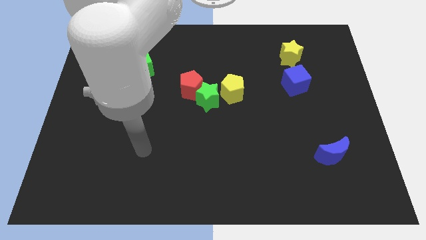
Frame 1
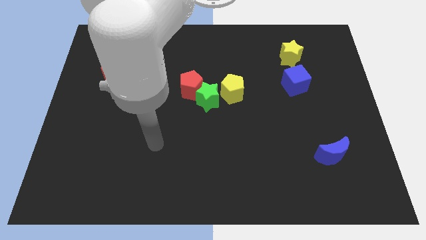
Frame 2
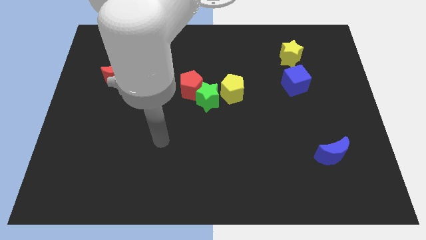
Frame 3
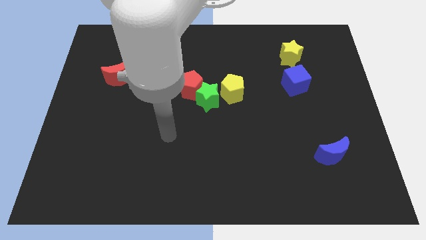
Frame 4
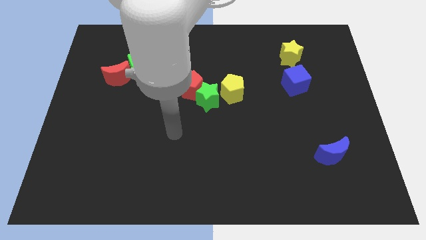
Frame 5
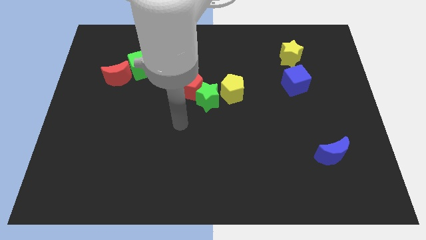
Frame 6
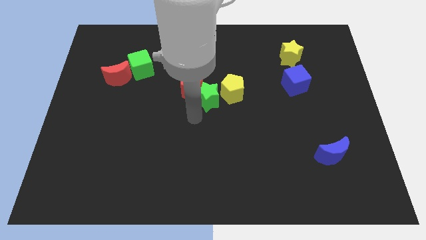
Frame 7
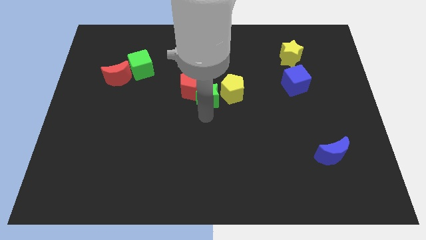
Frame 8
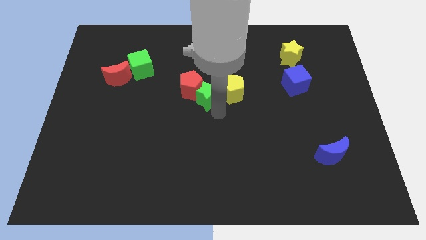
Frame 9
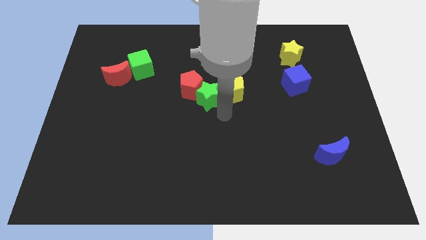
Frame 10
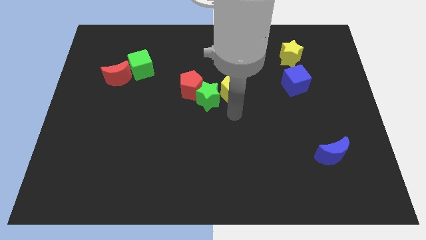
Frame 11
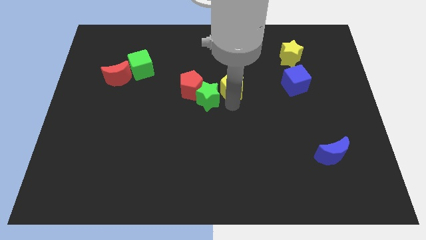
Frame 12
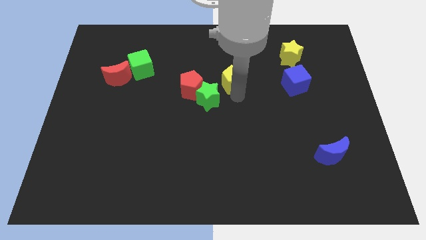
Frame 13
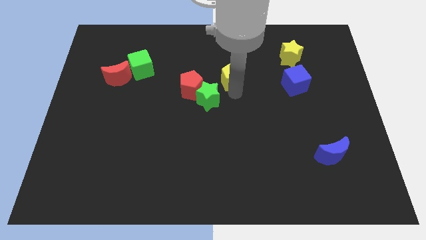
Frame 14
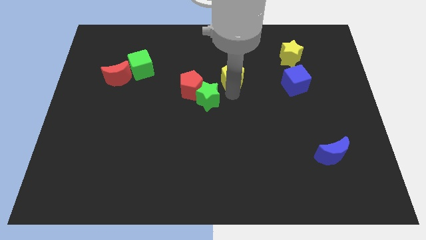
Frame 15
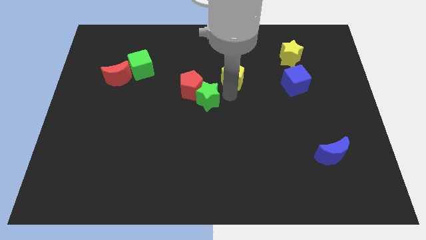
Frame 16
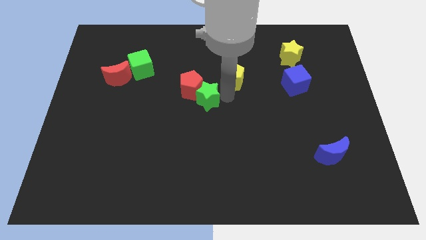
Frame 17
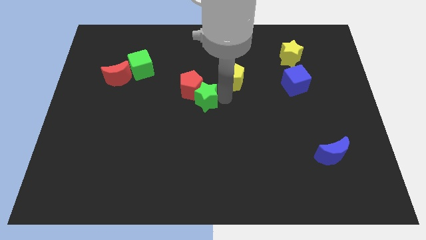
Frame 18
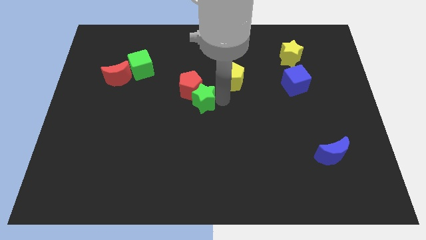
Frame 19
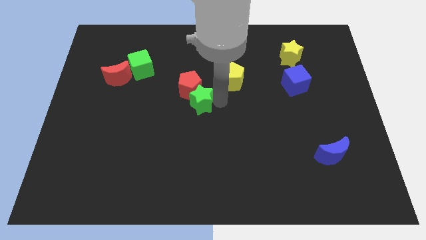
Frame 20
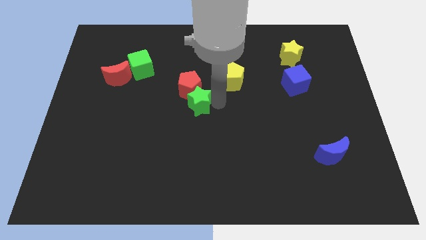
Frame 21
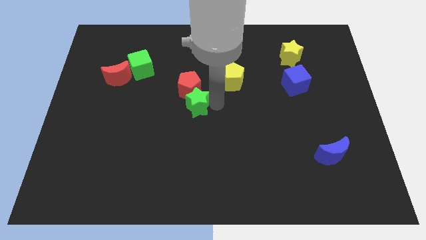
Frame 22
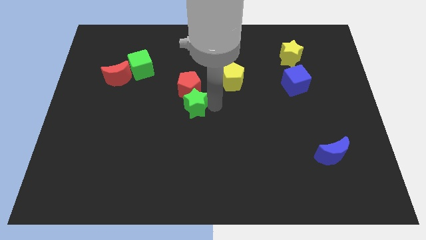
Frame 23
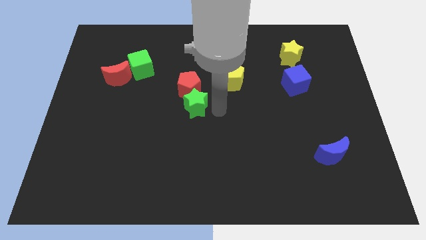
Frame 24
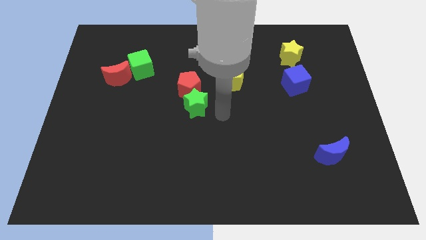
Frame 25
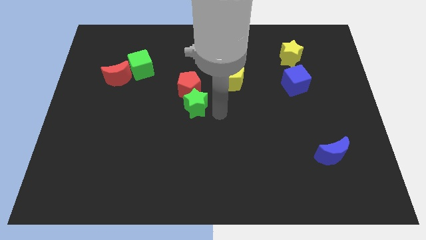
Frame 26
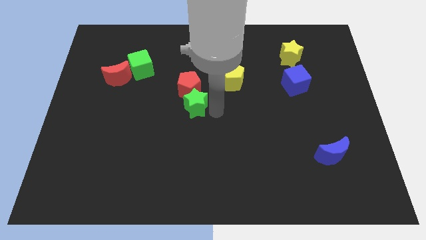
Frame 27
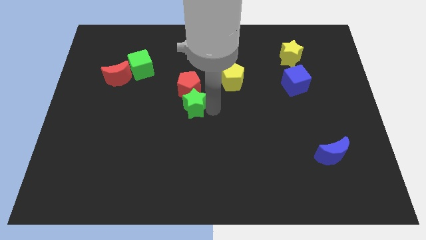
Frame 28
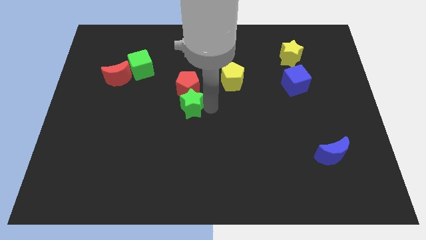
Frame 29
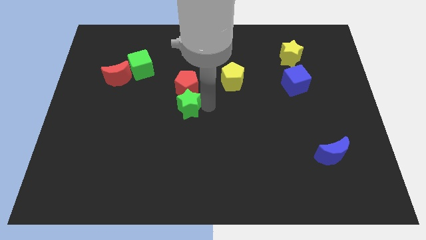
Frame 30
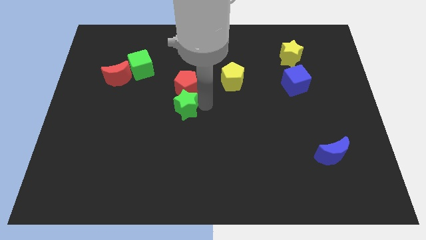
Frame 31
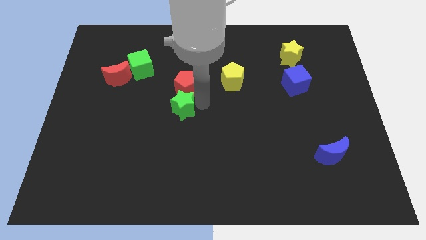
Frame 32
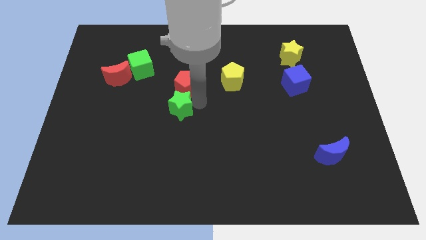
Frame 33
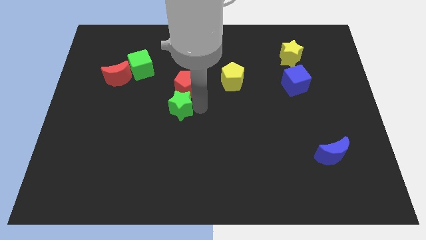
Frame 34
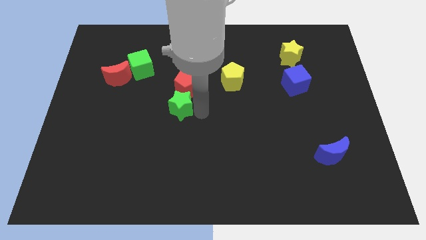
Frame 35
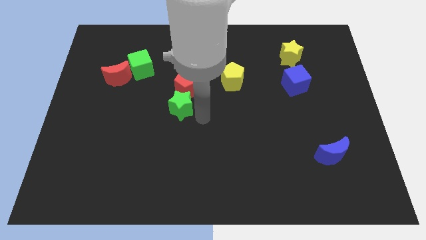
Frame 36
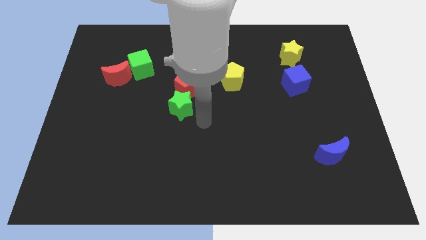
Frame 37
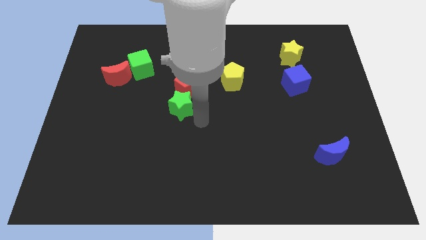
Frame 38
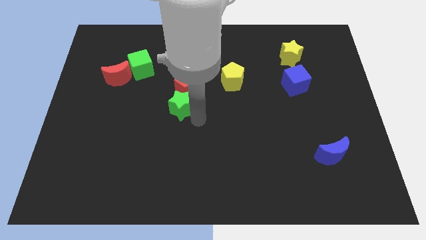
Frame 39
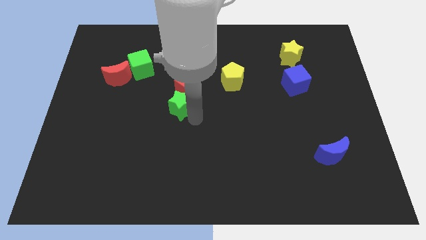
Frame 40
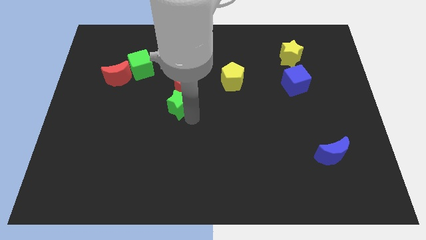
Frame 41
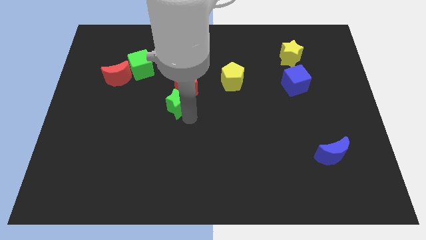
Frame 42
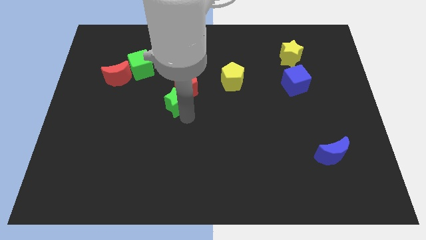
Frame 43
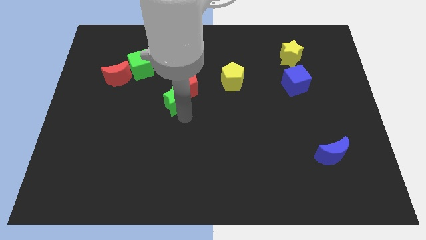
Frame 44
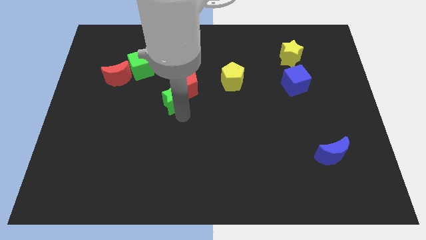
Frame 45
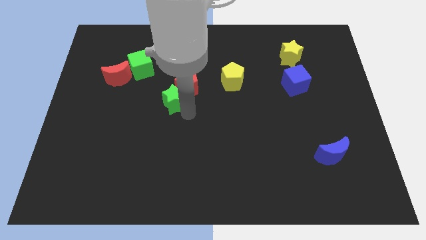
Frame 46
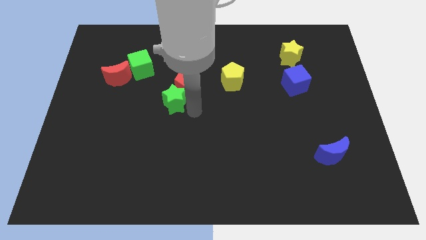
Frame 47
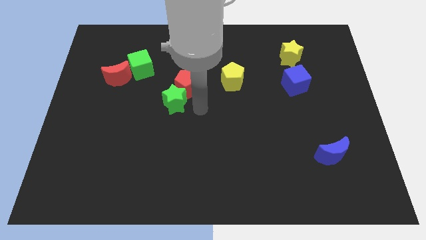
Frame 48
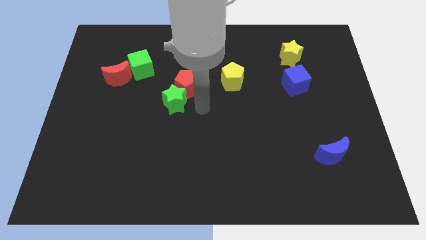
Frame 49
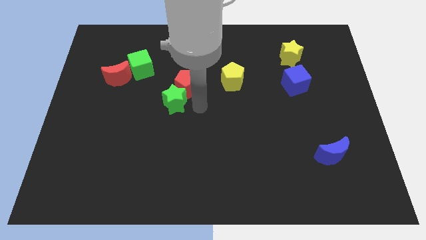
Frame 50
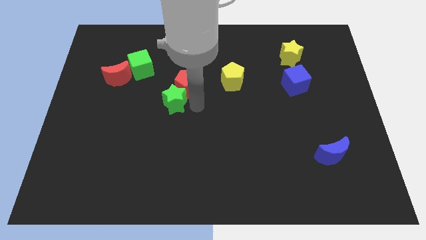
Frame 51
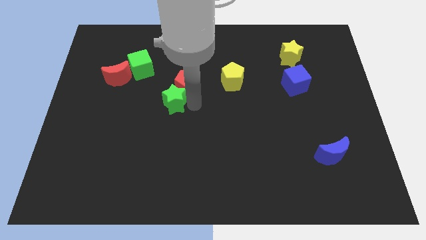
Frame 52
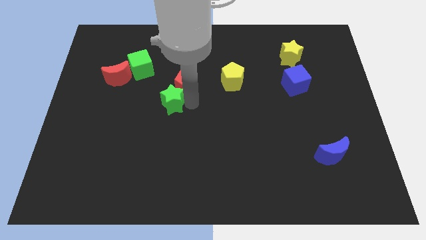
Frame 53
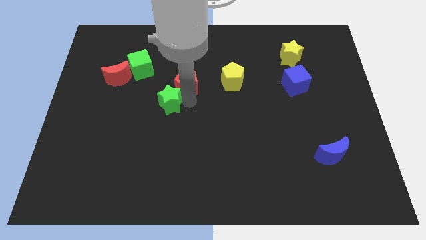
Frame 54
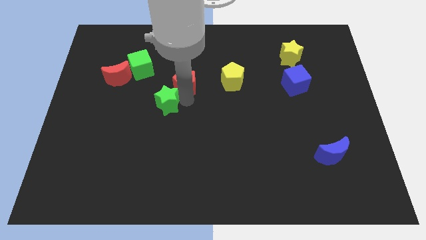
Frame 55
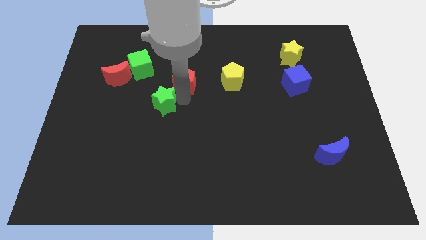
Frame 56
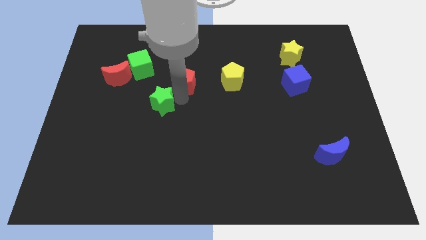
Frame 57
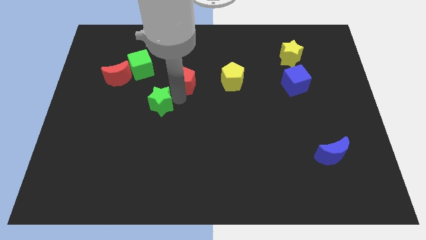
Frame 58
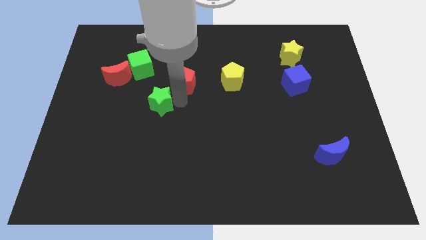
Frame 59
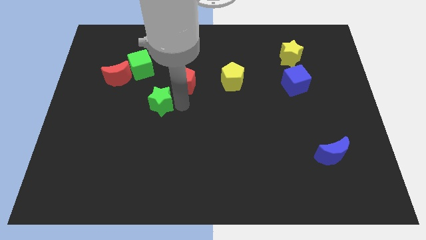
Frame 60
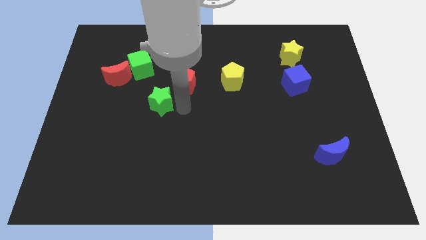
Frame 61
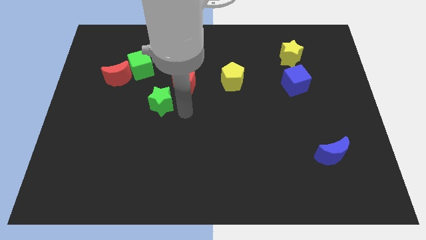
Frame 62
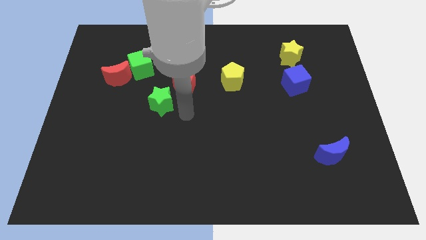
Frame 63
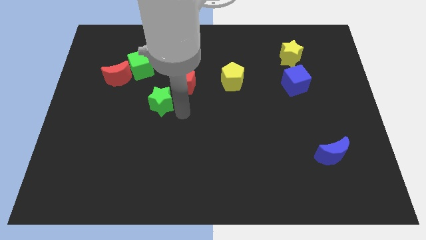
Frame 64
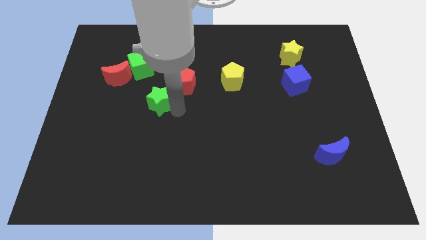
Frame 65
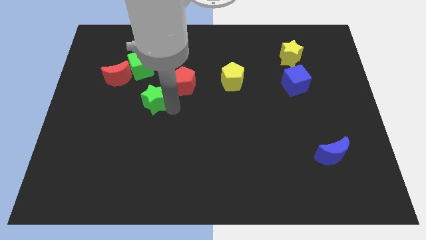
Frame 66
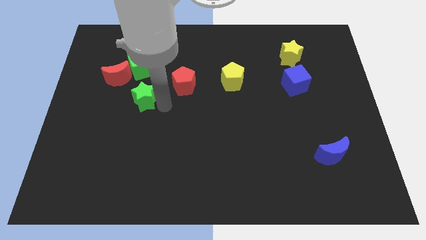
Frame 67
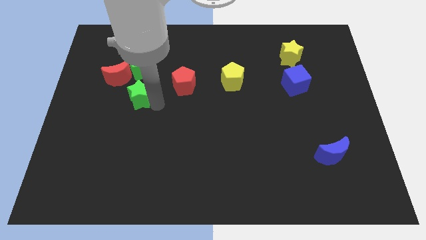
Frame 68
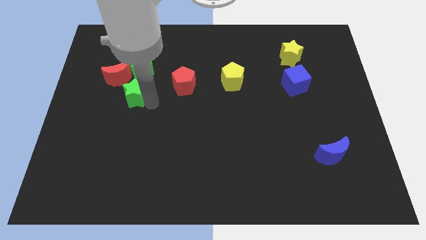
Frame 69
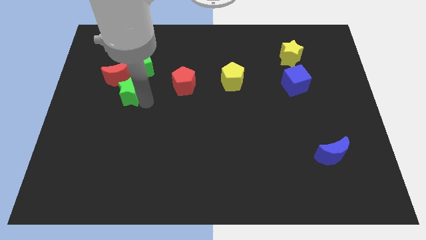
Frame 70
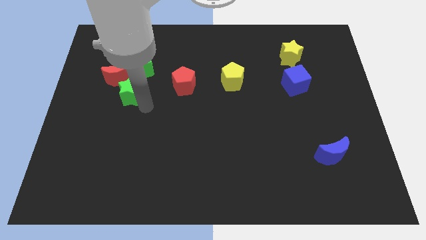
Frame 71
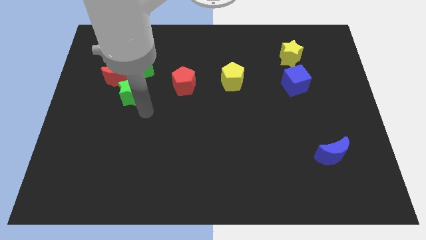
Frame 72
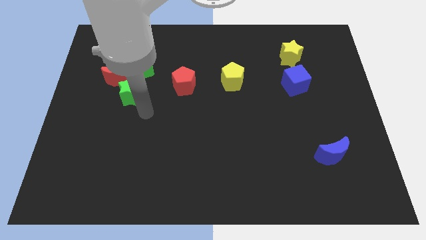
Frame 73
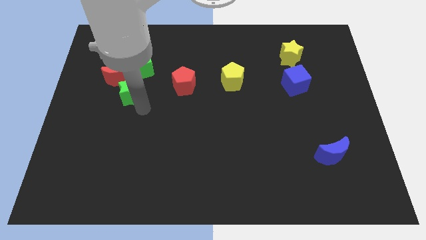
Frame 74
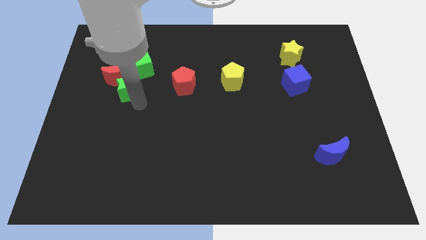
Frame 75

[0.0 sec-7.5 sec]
put the green star close to the red moon
